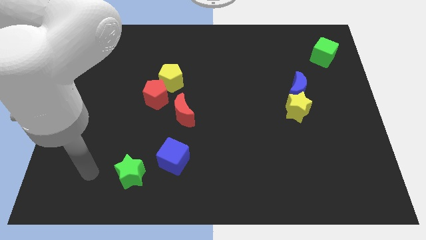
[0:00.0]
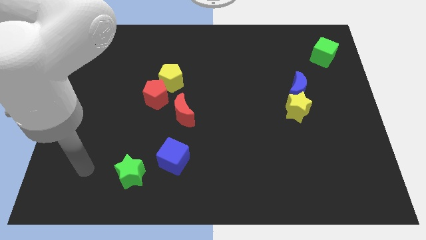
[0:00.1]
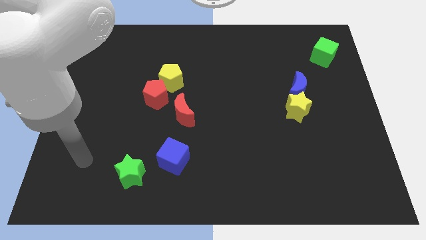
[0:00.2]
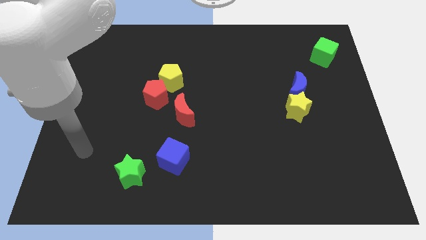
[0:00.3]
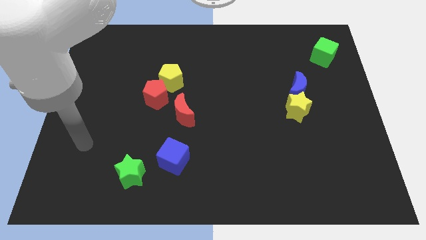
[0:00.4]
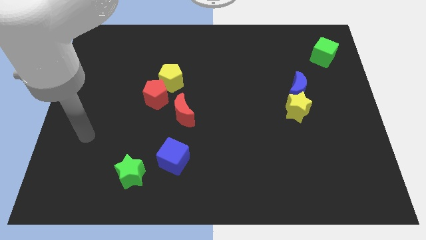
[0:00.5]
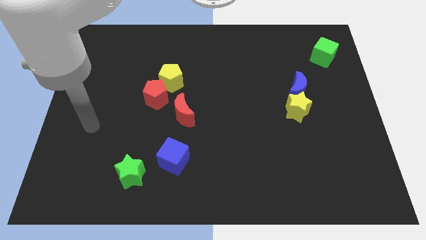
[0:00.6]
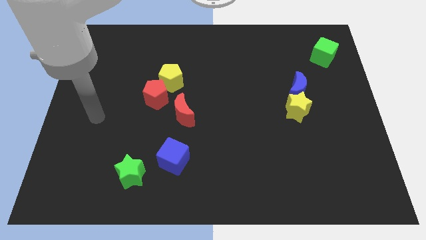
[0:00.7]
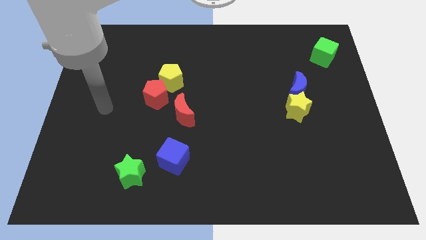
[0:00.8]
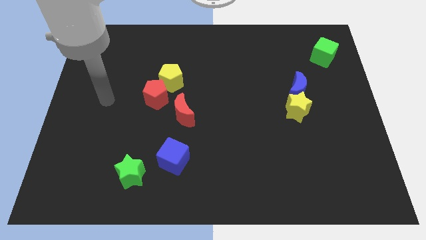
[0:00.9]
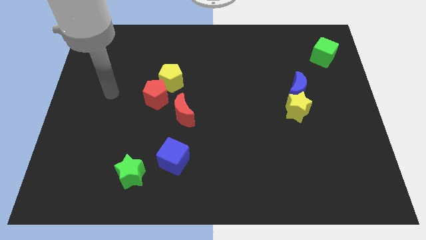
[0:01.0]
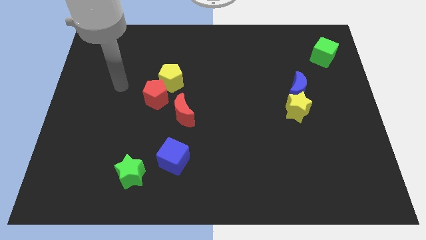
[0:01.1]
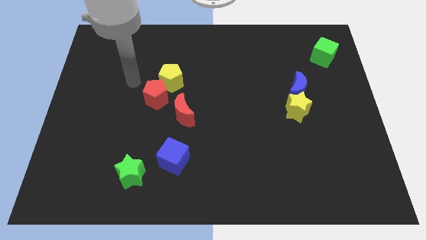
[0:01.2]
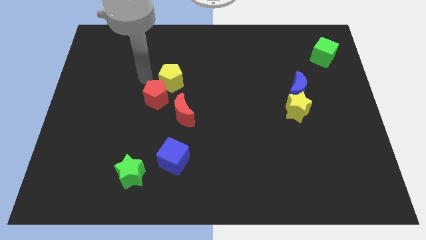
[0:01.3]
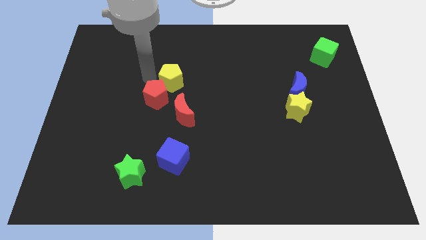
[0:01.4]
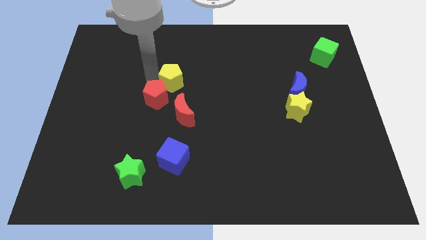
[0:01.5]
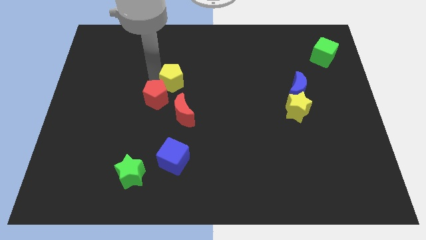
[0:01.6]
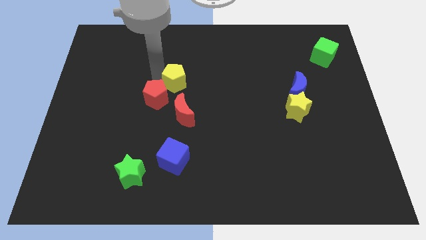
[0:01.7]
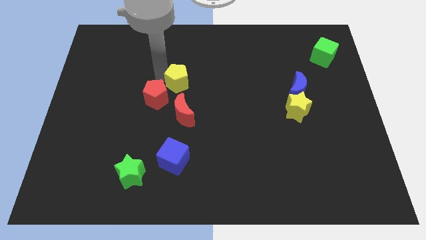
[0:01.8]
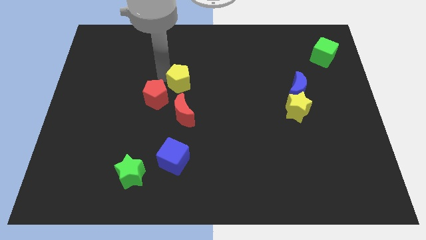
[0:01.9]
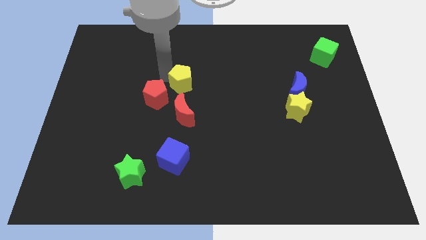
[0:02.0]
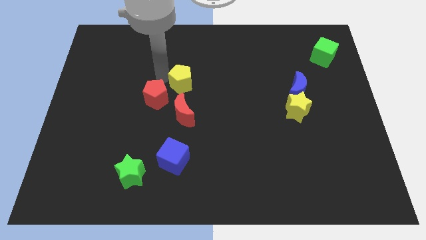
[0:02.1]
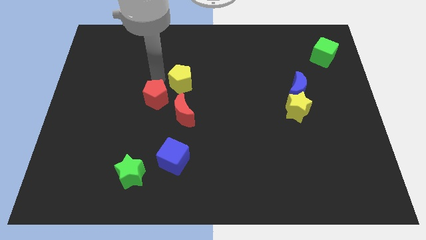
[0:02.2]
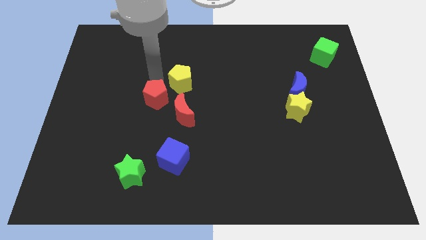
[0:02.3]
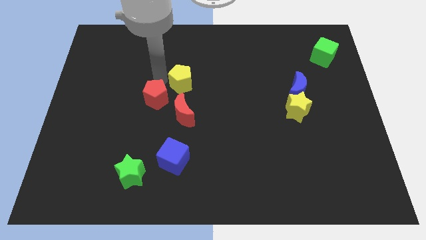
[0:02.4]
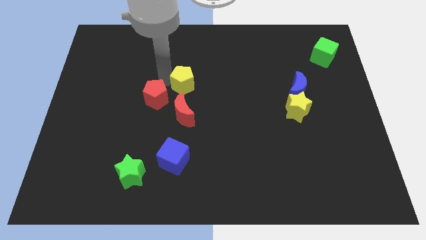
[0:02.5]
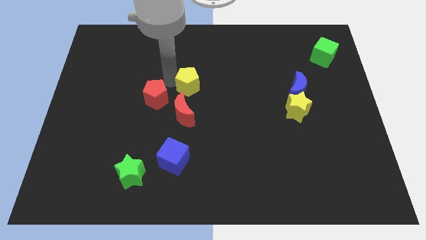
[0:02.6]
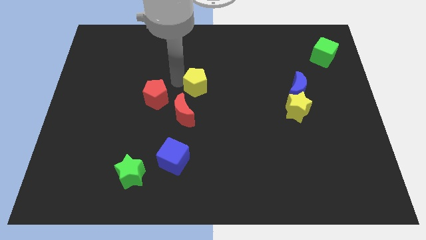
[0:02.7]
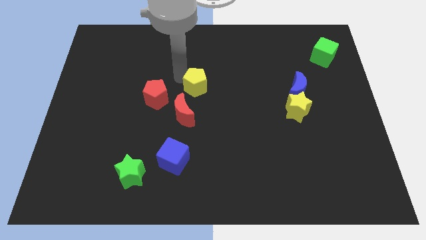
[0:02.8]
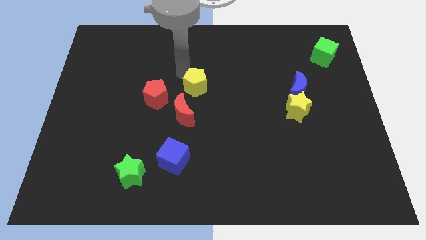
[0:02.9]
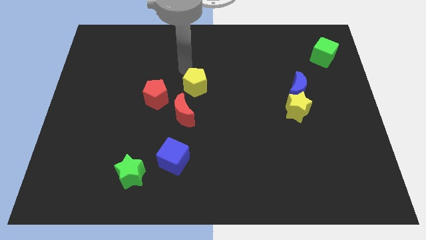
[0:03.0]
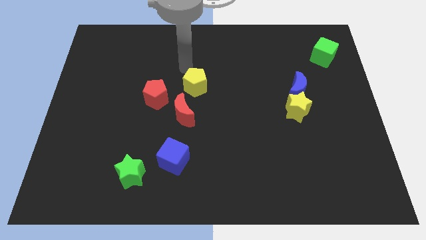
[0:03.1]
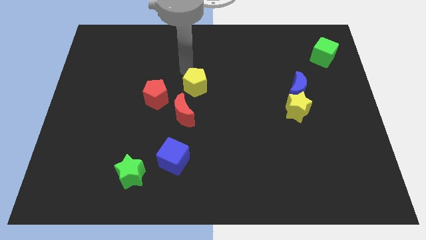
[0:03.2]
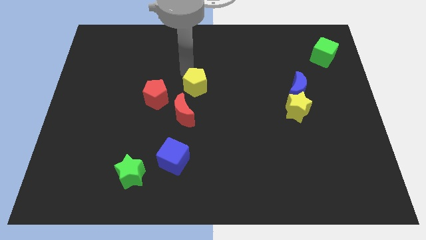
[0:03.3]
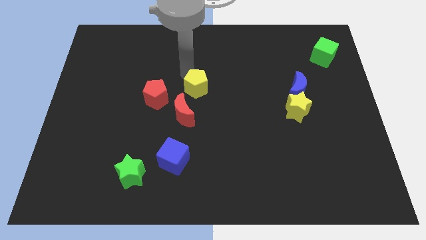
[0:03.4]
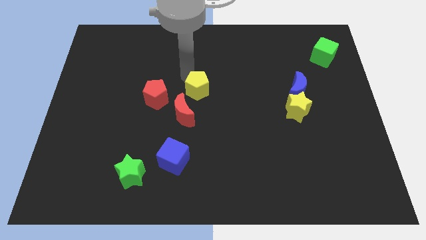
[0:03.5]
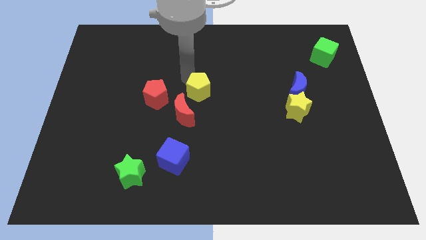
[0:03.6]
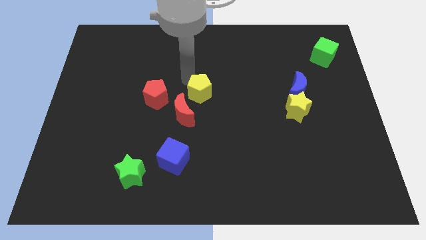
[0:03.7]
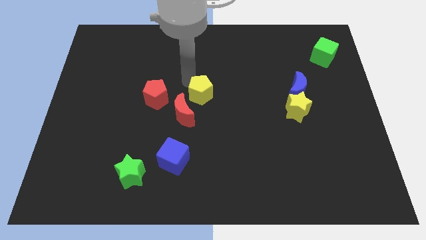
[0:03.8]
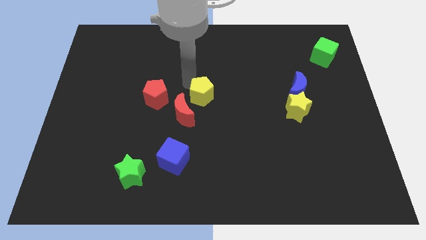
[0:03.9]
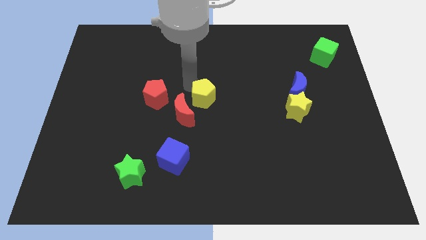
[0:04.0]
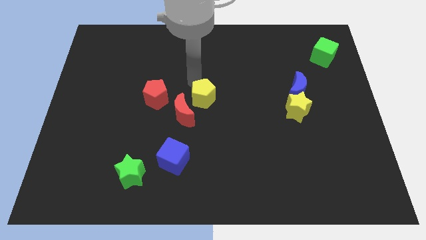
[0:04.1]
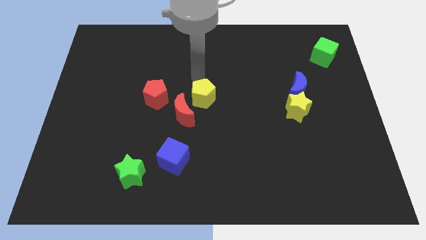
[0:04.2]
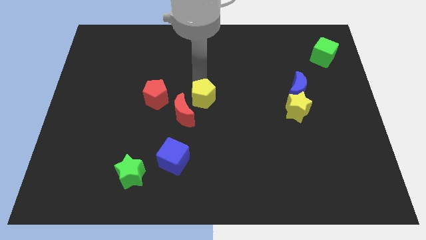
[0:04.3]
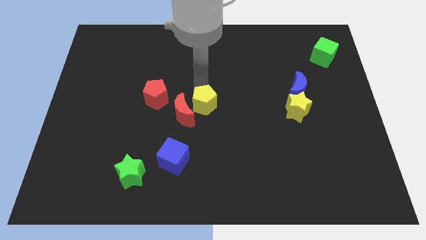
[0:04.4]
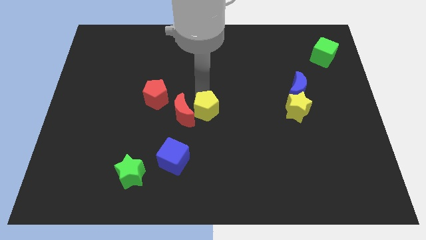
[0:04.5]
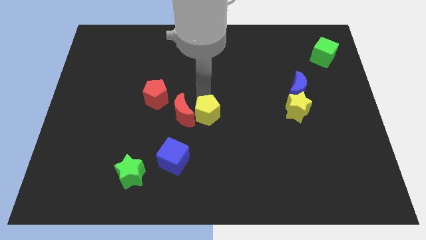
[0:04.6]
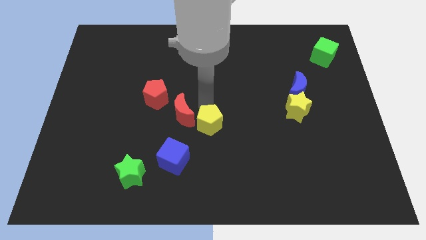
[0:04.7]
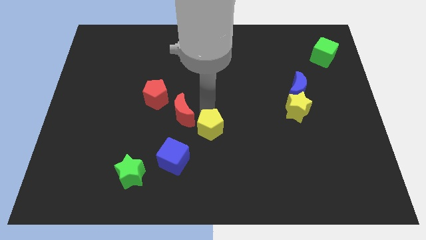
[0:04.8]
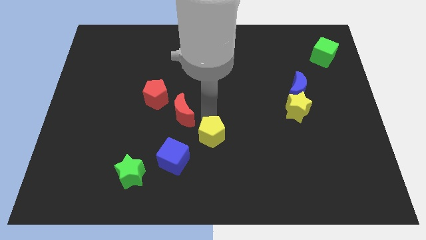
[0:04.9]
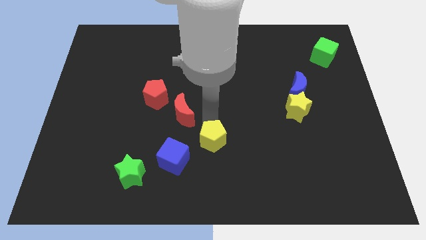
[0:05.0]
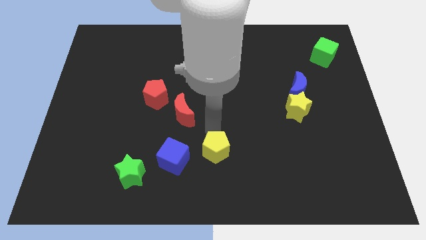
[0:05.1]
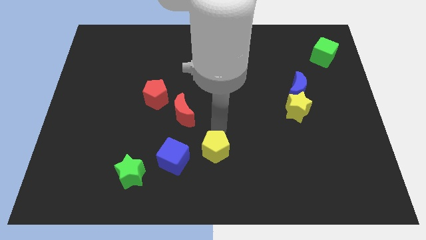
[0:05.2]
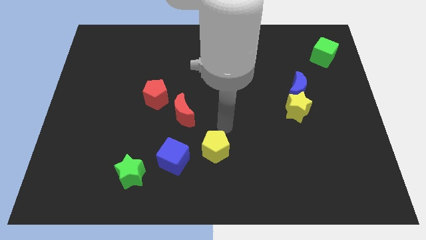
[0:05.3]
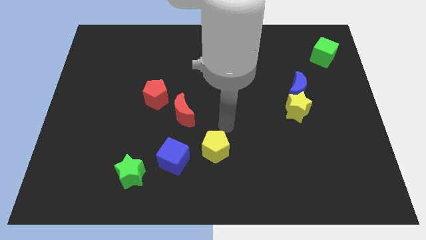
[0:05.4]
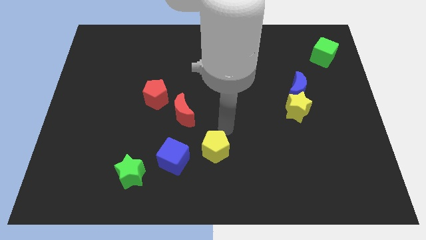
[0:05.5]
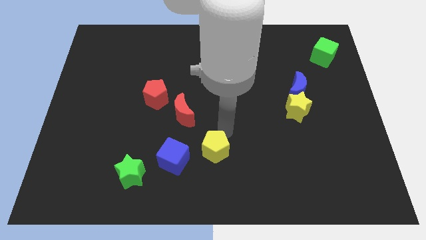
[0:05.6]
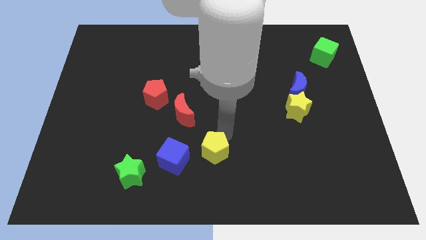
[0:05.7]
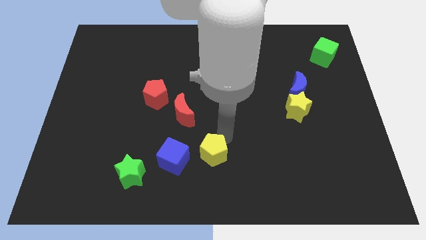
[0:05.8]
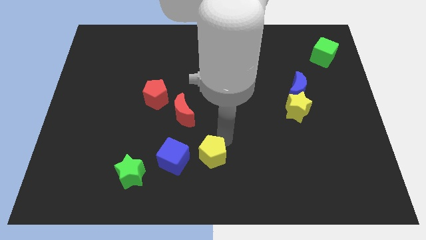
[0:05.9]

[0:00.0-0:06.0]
put the yellow pentagon to the bottom side
